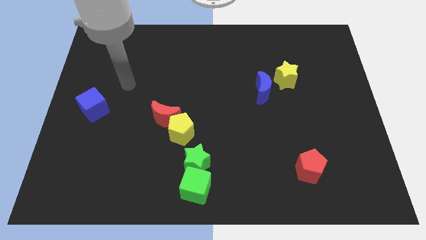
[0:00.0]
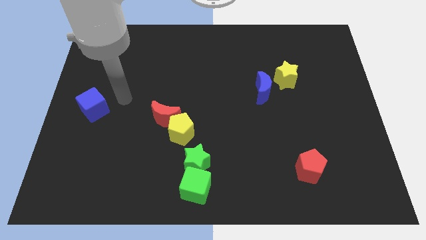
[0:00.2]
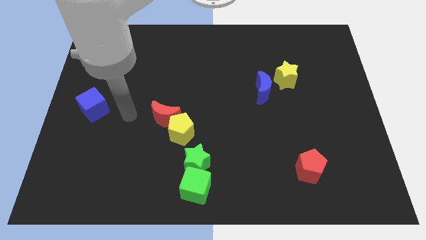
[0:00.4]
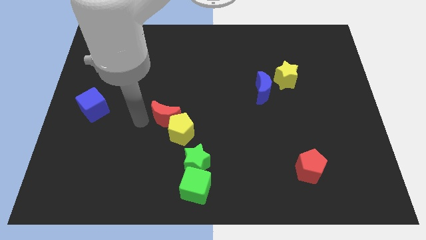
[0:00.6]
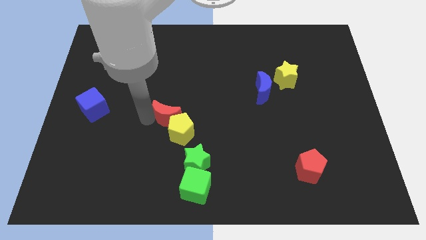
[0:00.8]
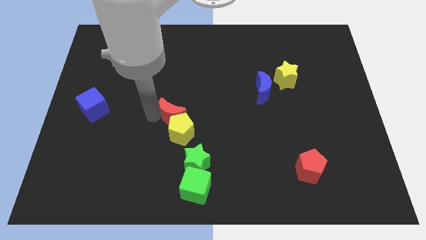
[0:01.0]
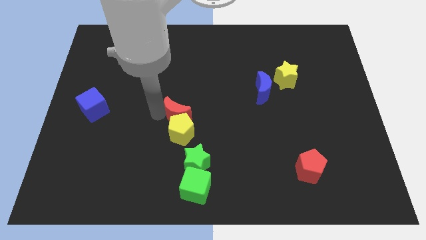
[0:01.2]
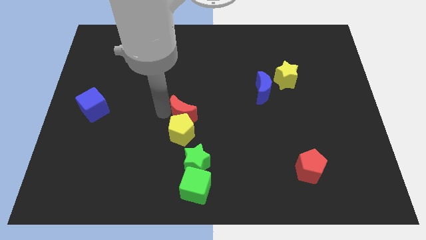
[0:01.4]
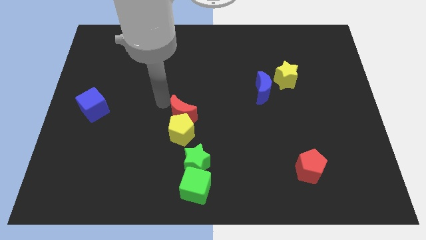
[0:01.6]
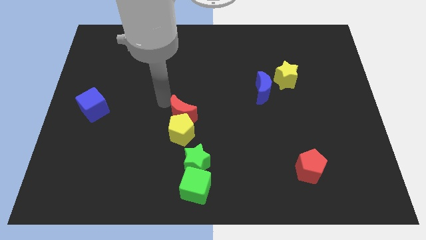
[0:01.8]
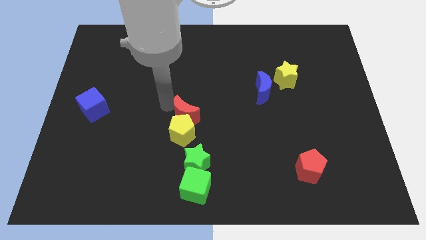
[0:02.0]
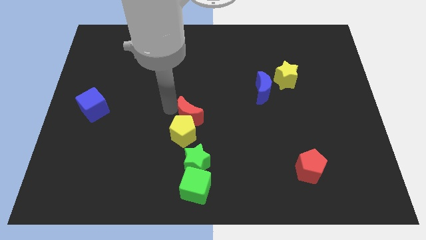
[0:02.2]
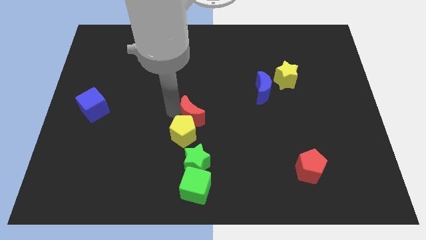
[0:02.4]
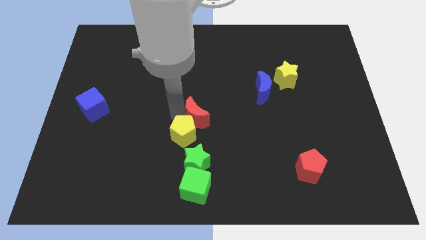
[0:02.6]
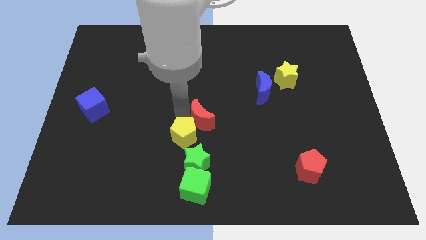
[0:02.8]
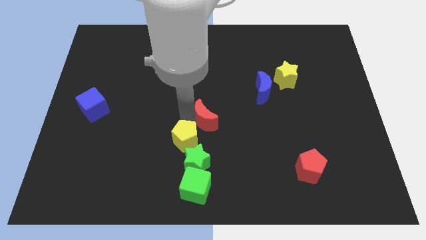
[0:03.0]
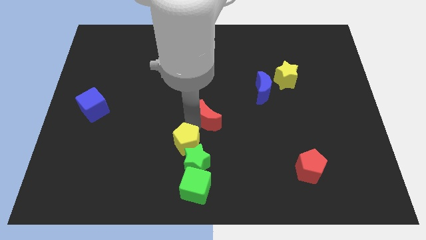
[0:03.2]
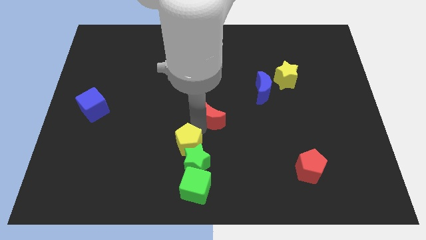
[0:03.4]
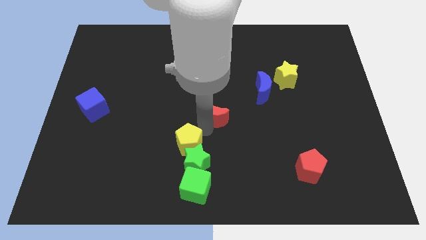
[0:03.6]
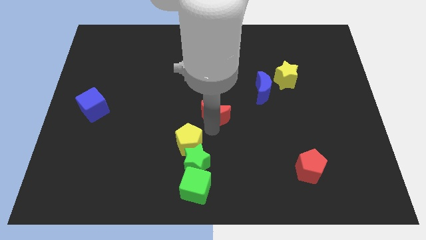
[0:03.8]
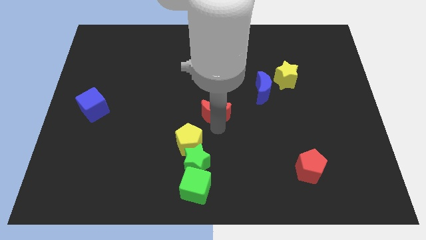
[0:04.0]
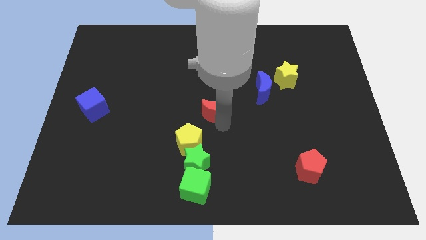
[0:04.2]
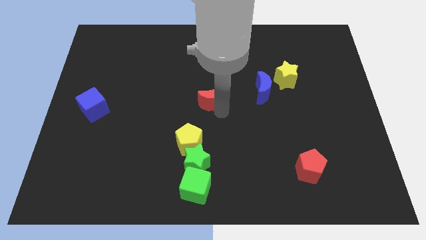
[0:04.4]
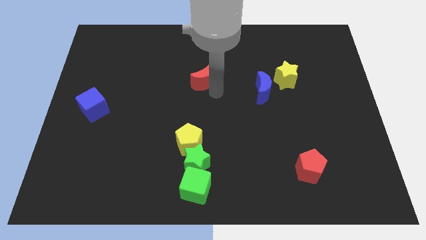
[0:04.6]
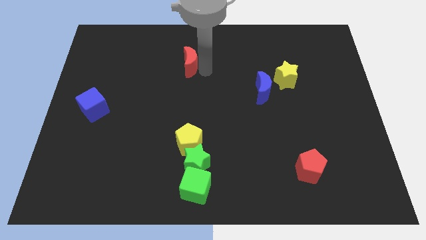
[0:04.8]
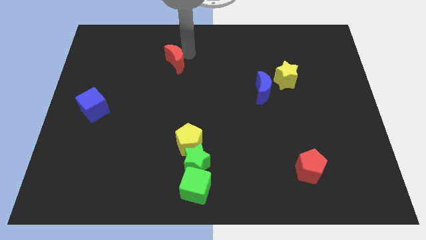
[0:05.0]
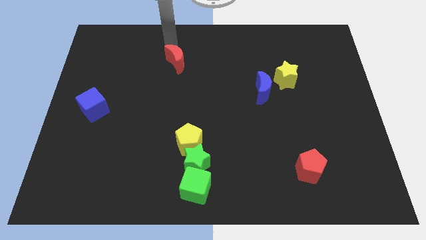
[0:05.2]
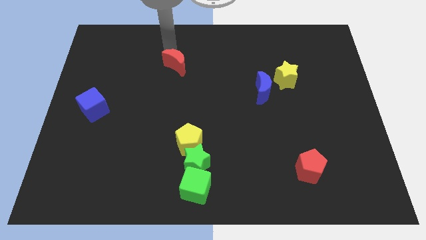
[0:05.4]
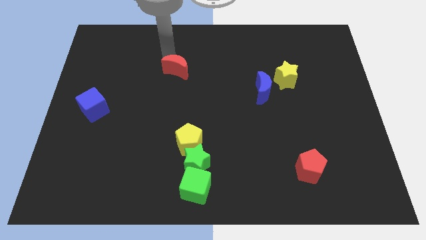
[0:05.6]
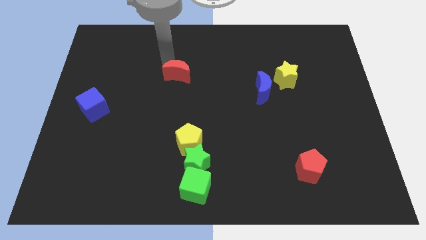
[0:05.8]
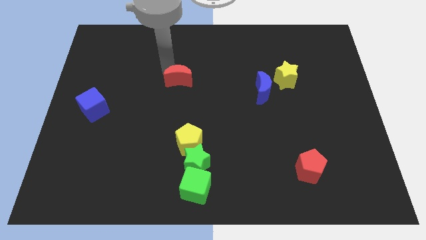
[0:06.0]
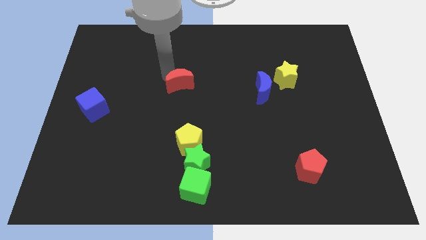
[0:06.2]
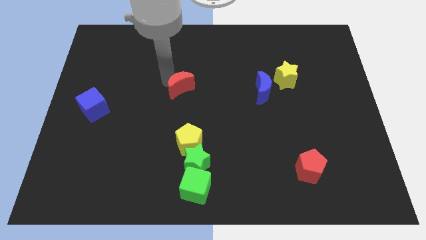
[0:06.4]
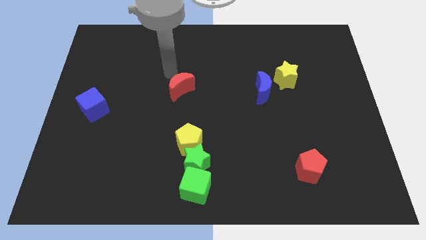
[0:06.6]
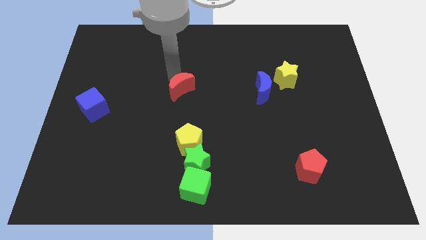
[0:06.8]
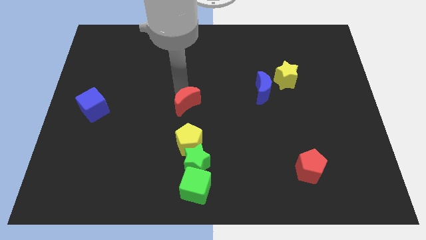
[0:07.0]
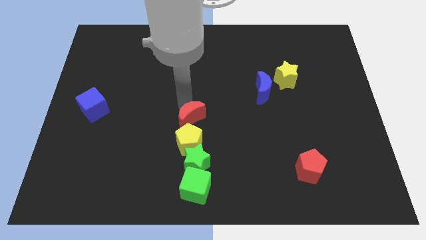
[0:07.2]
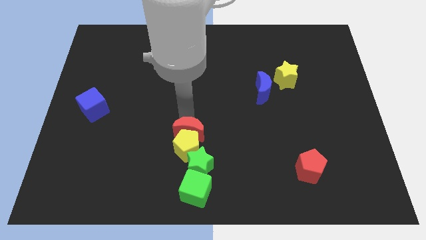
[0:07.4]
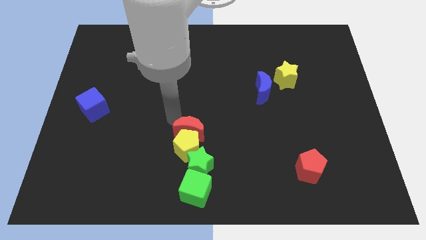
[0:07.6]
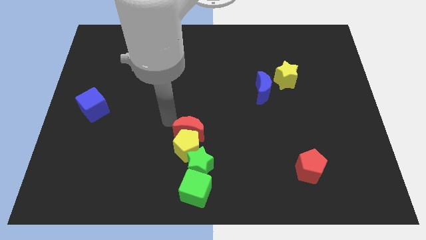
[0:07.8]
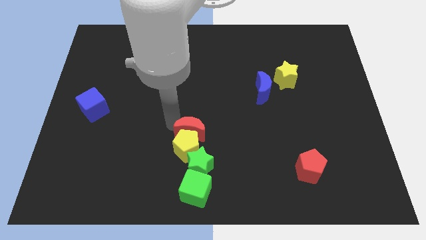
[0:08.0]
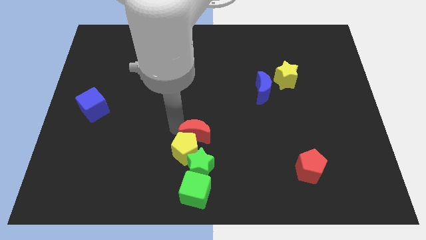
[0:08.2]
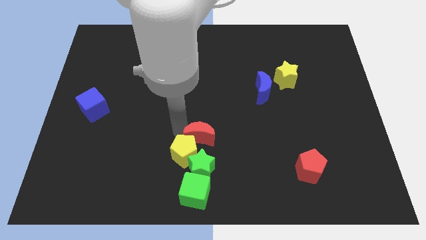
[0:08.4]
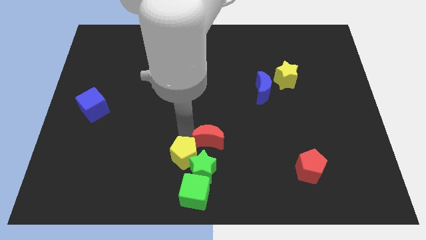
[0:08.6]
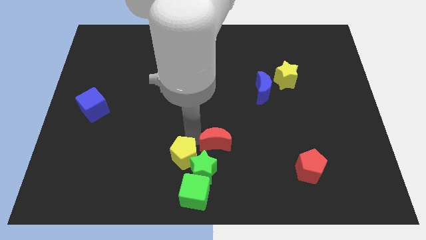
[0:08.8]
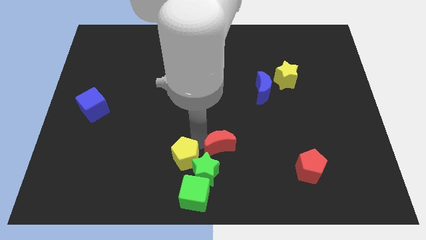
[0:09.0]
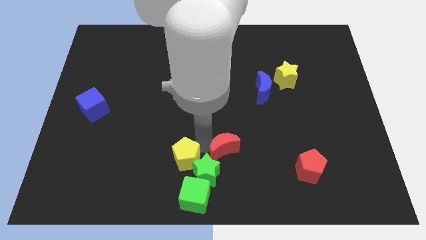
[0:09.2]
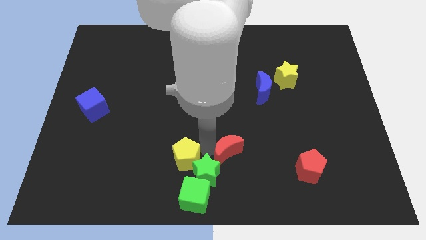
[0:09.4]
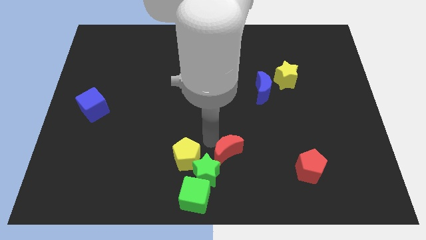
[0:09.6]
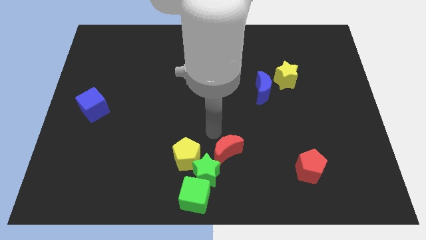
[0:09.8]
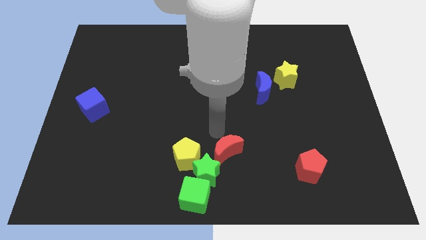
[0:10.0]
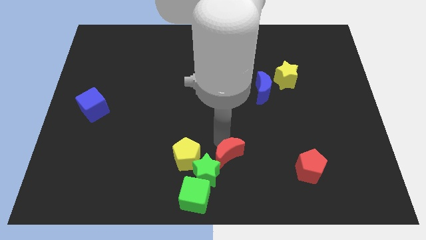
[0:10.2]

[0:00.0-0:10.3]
move the red moon to the bottom

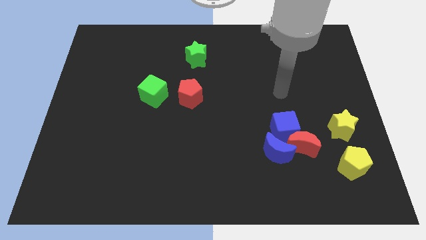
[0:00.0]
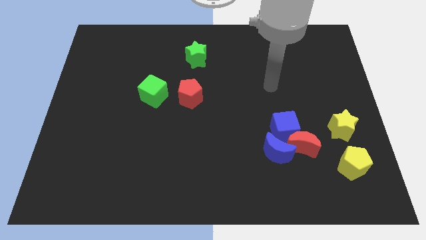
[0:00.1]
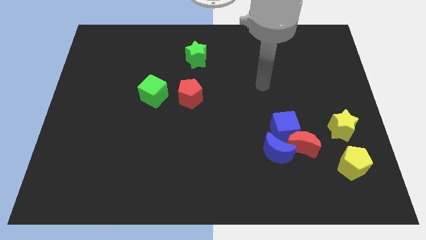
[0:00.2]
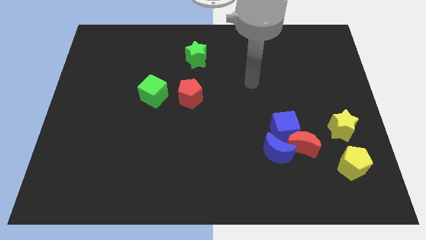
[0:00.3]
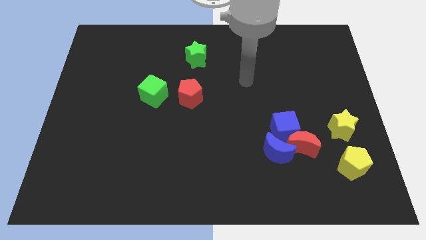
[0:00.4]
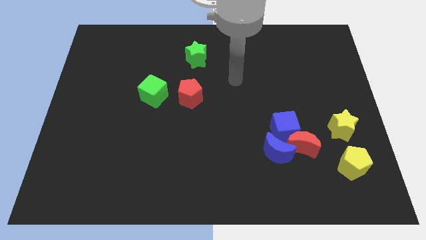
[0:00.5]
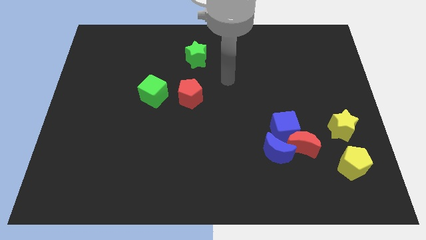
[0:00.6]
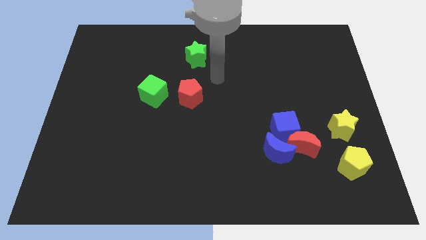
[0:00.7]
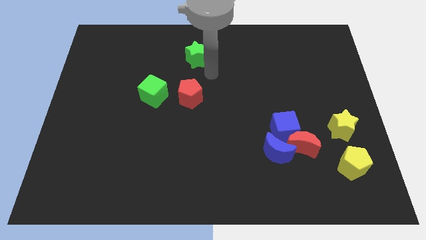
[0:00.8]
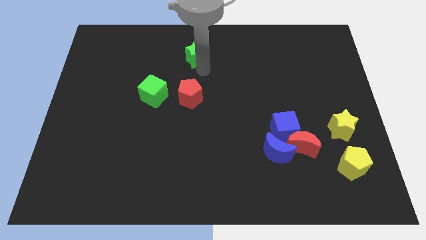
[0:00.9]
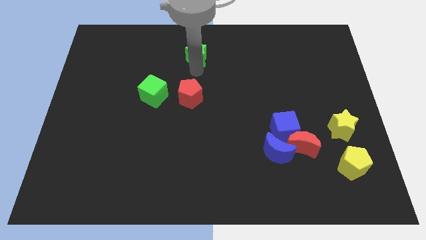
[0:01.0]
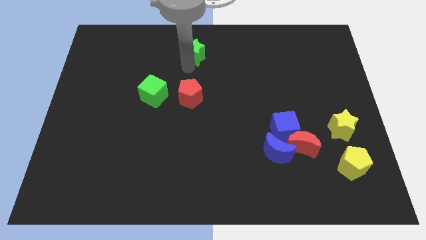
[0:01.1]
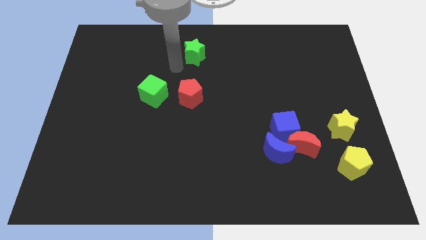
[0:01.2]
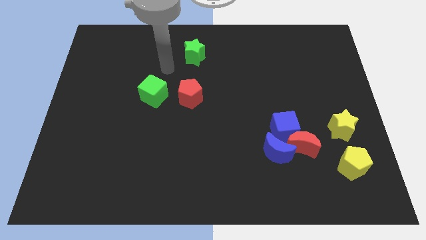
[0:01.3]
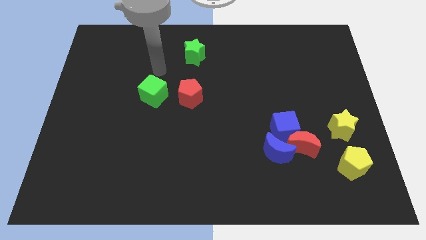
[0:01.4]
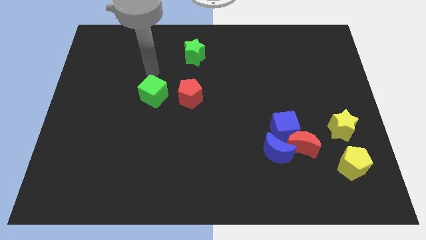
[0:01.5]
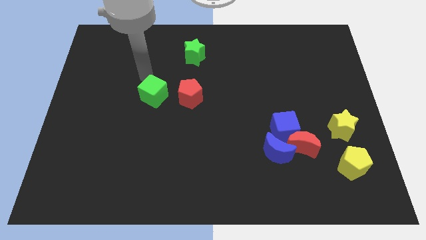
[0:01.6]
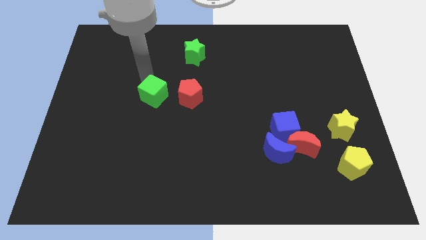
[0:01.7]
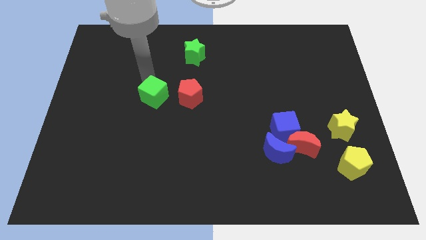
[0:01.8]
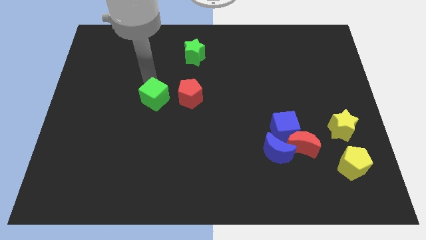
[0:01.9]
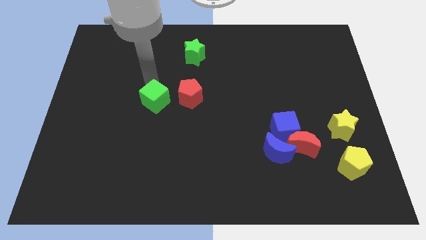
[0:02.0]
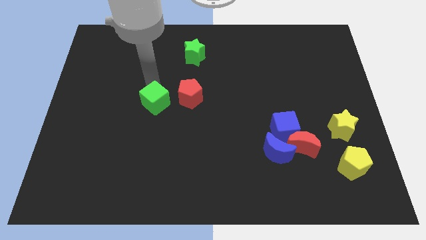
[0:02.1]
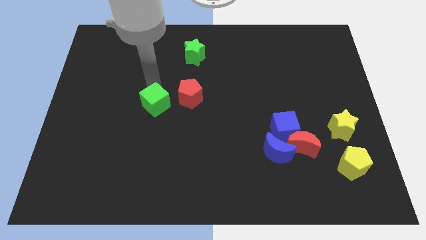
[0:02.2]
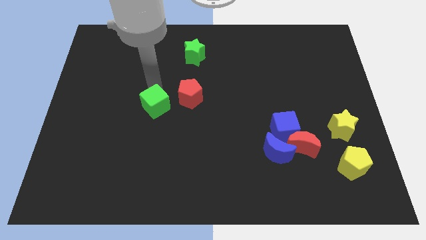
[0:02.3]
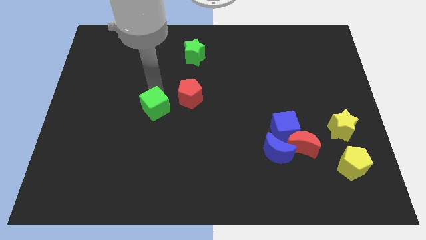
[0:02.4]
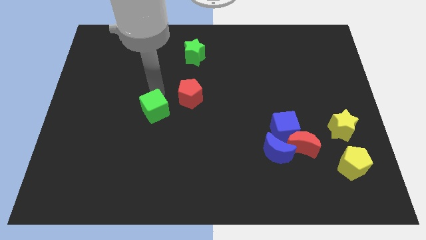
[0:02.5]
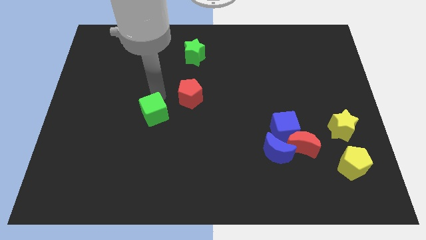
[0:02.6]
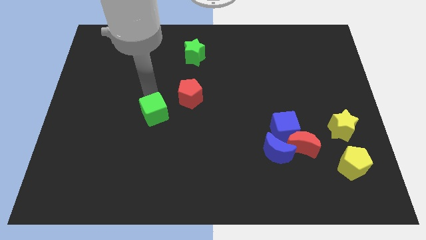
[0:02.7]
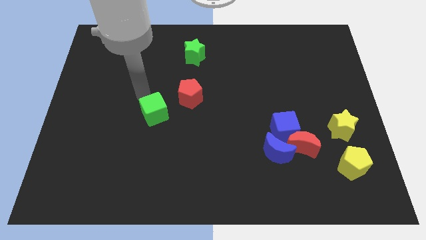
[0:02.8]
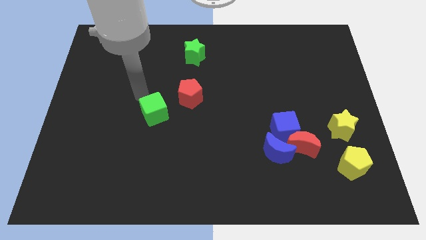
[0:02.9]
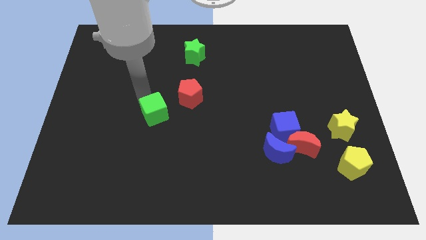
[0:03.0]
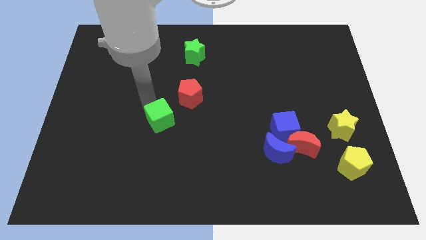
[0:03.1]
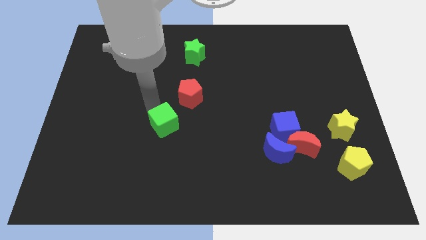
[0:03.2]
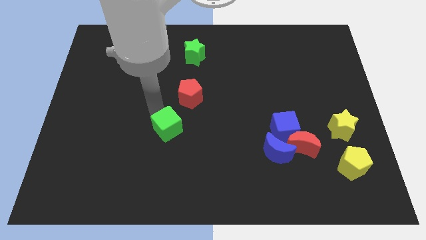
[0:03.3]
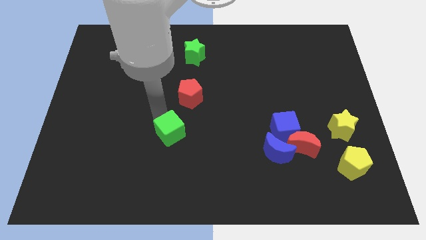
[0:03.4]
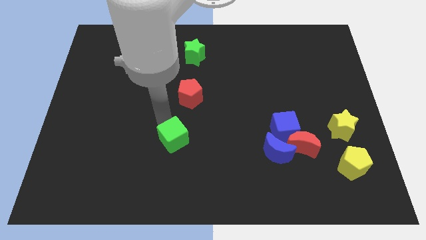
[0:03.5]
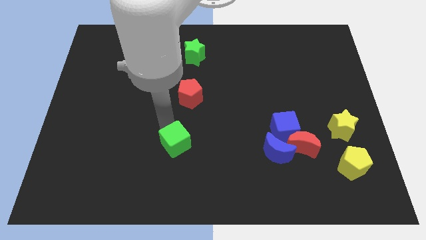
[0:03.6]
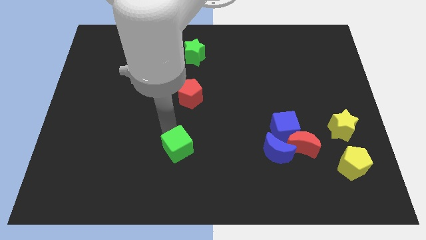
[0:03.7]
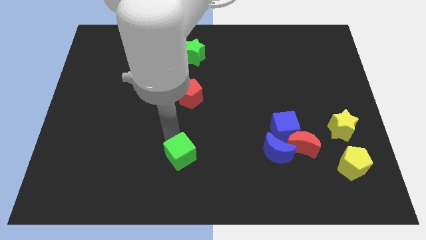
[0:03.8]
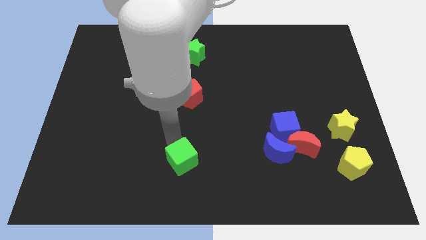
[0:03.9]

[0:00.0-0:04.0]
slide the green cube to the bottom
